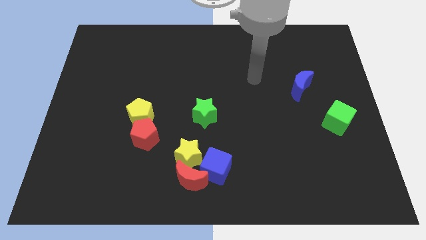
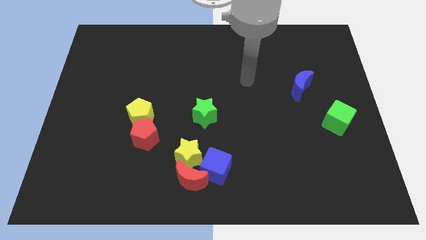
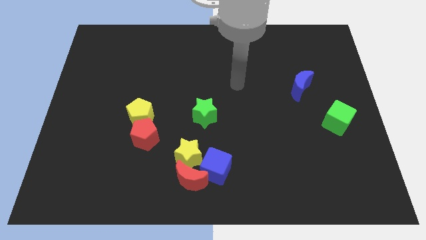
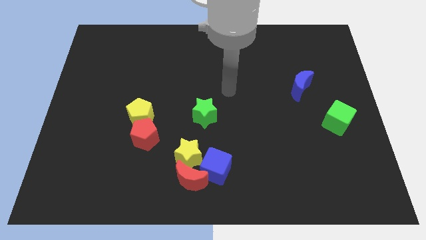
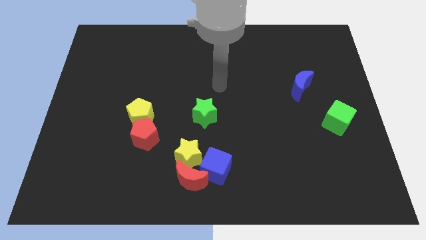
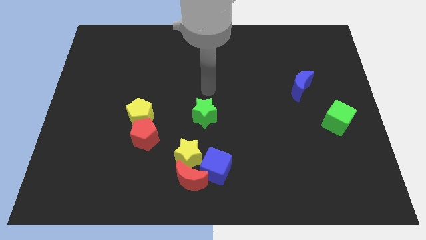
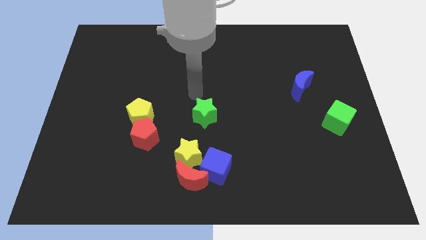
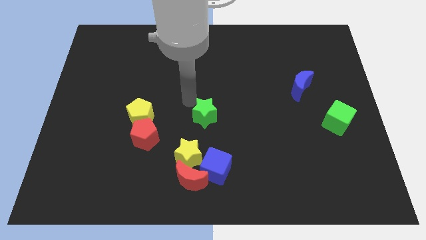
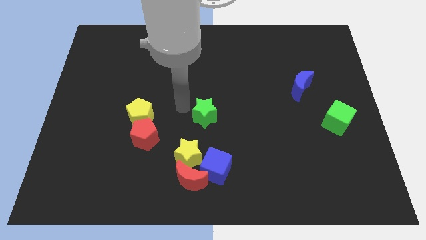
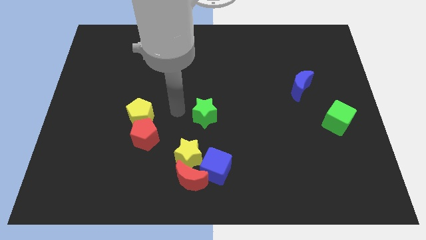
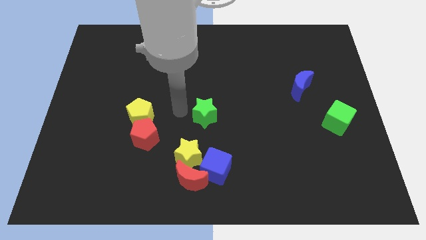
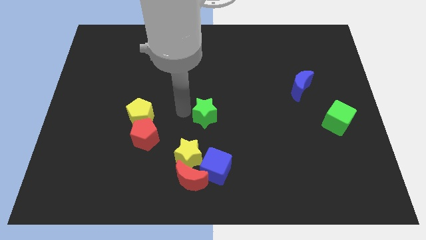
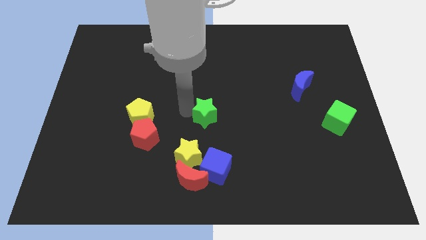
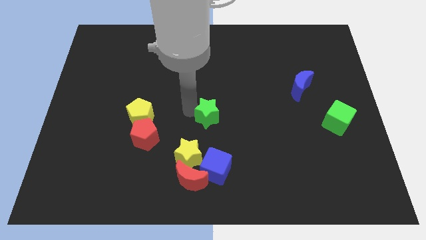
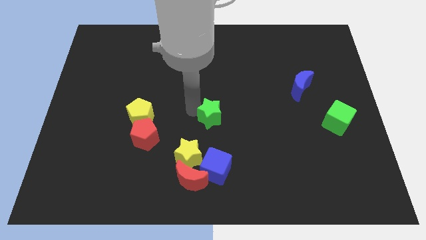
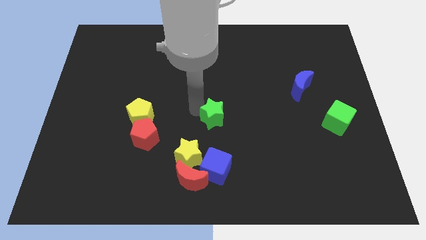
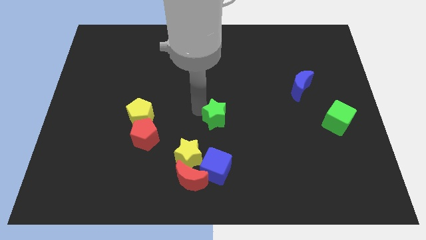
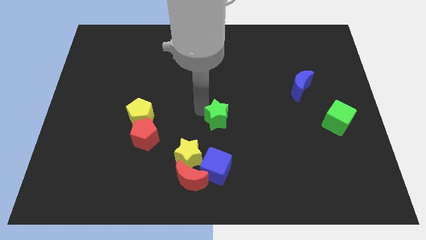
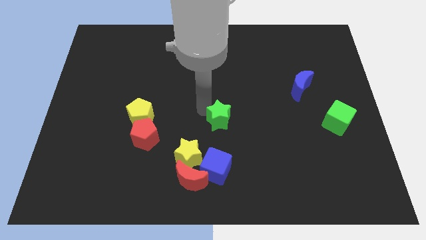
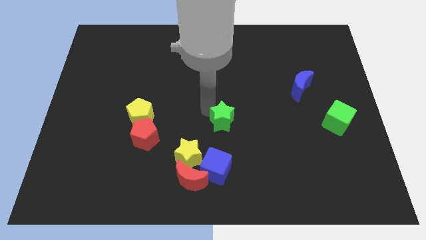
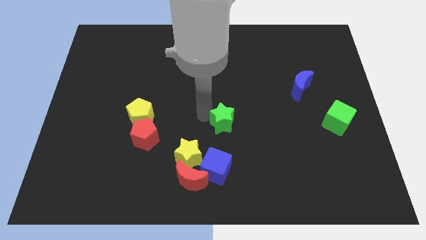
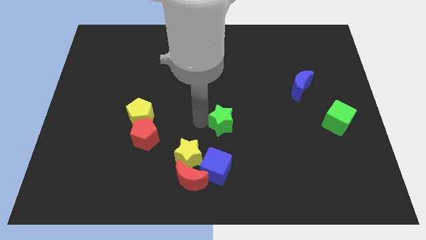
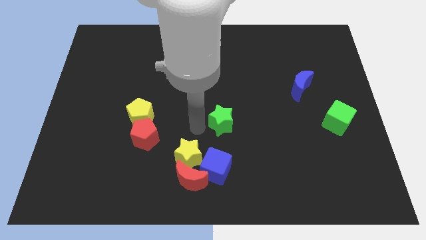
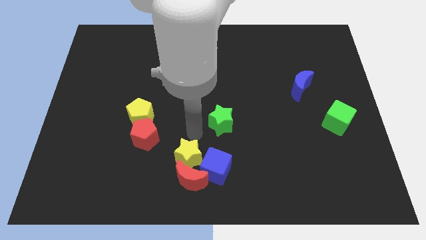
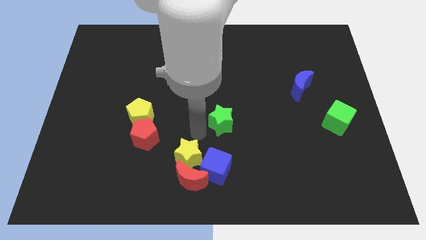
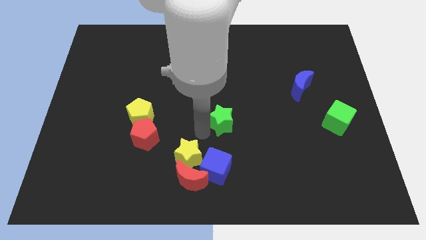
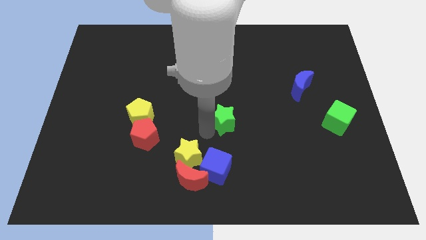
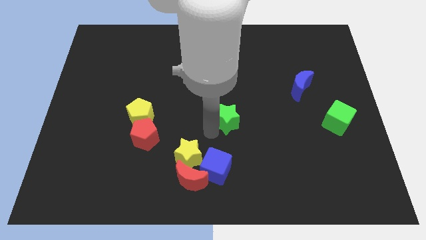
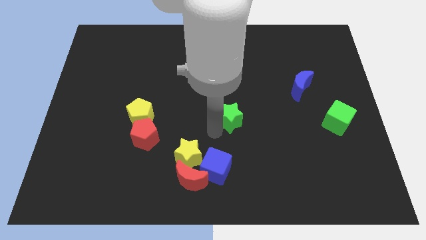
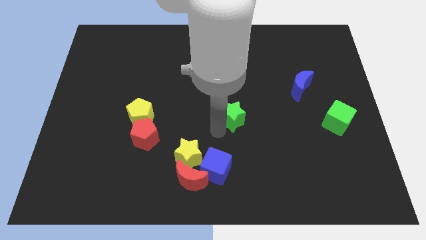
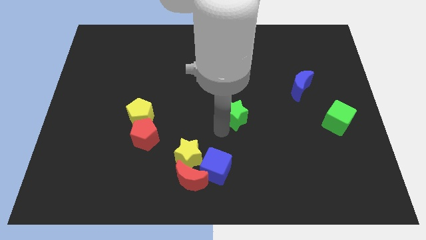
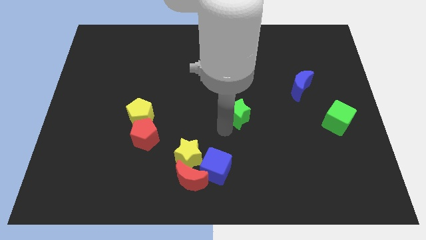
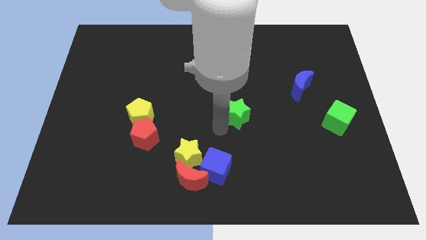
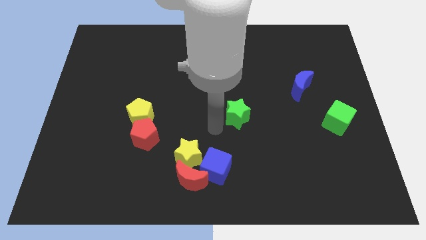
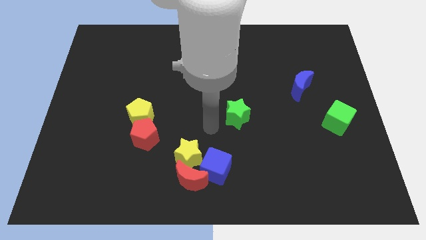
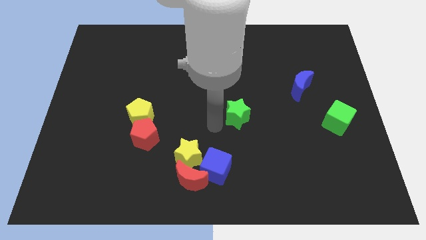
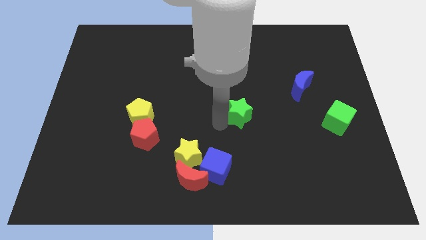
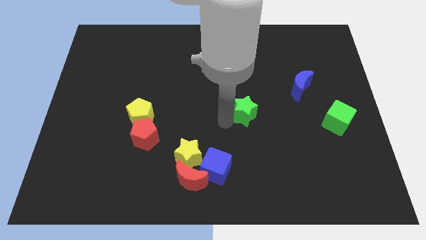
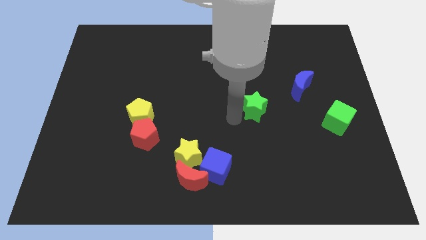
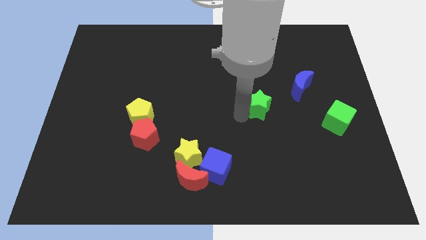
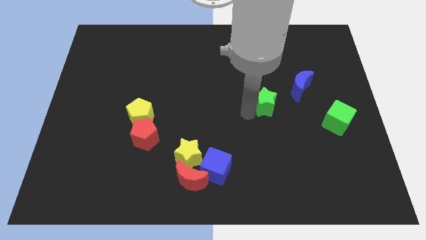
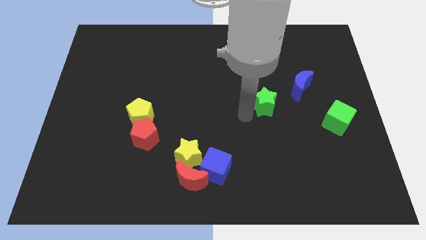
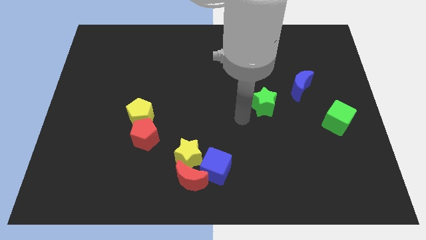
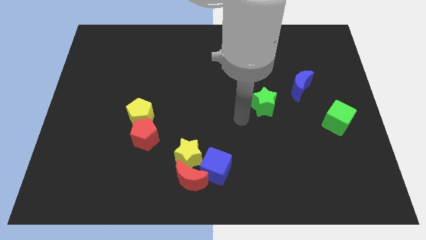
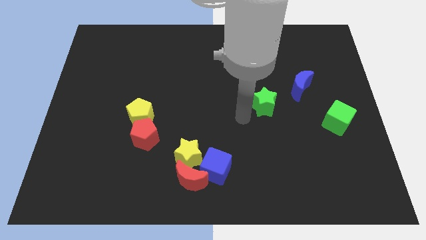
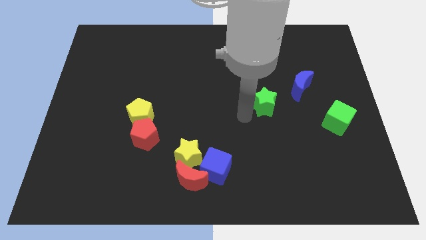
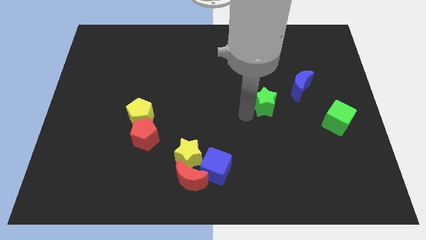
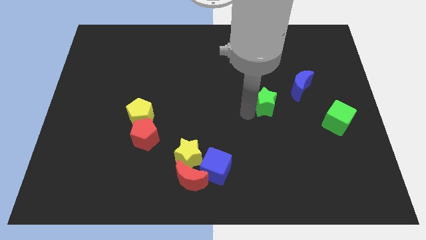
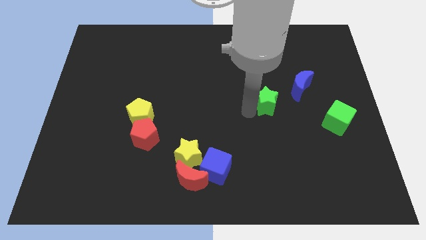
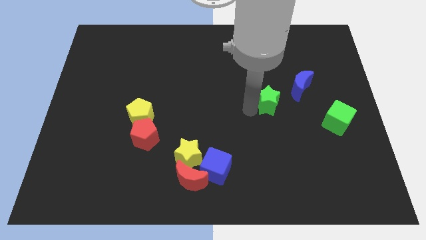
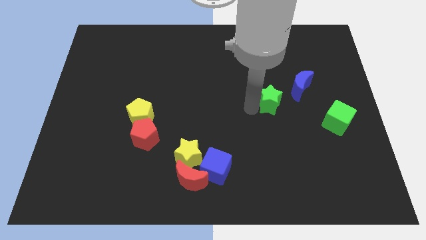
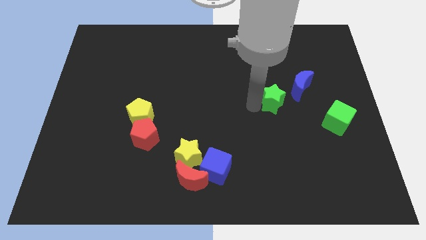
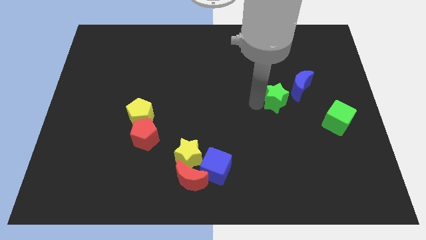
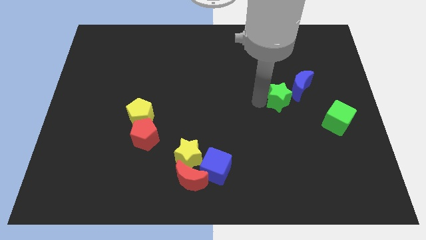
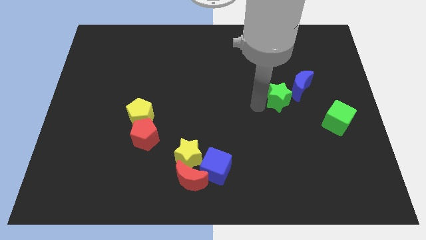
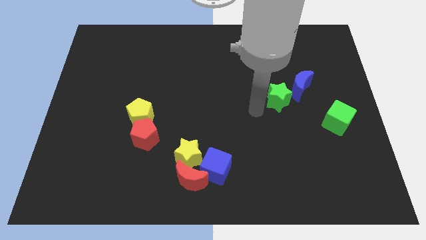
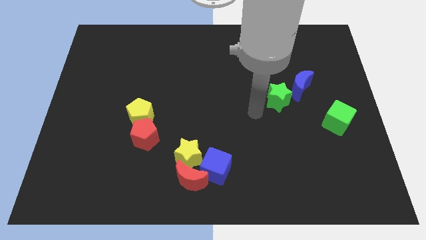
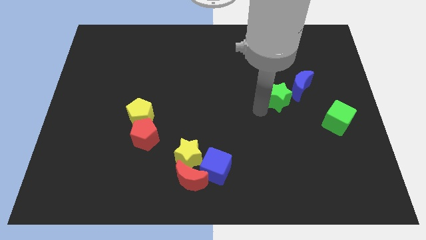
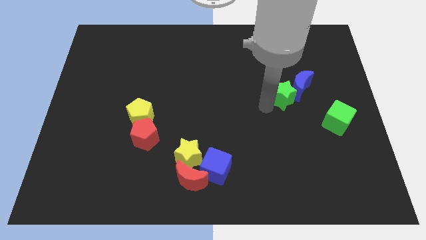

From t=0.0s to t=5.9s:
push the green star next to the blue moon

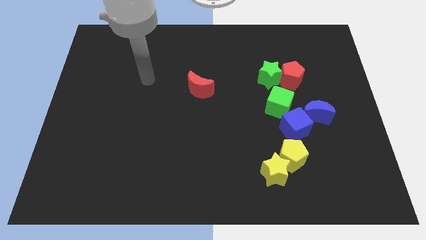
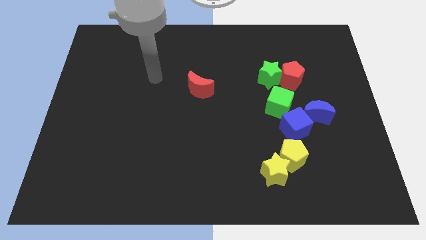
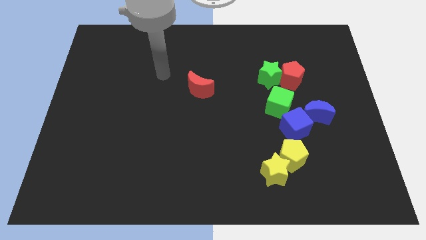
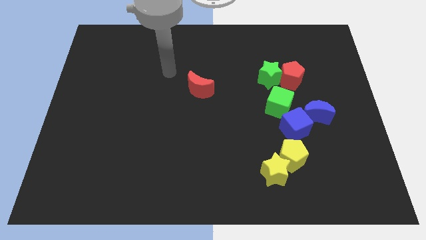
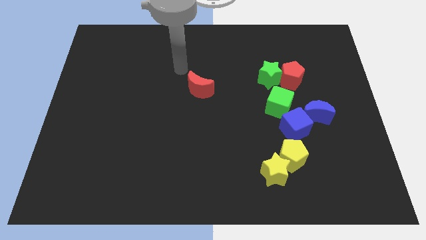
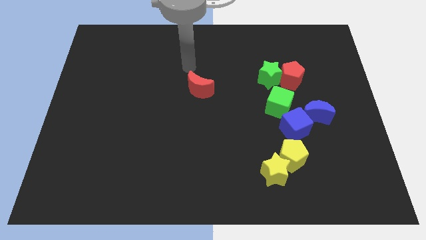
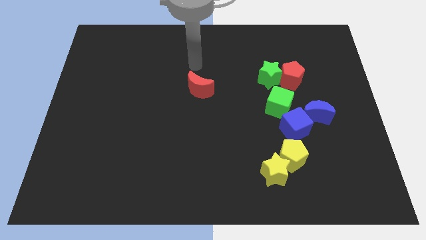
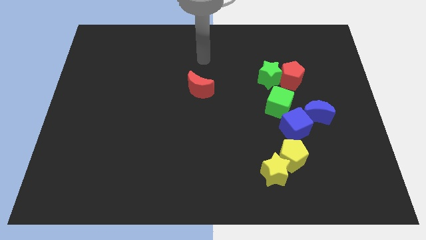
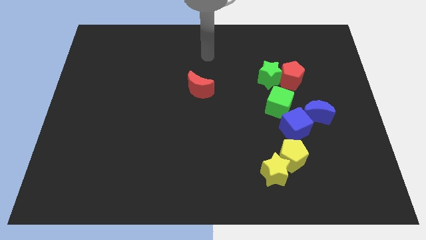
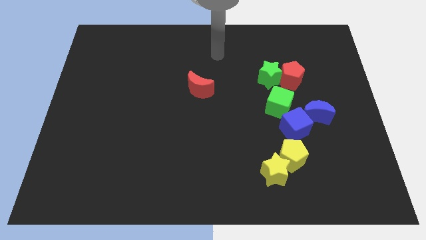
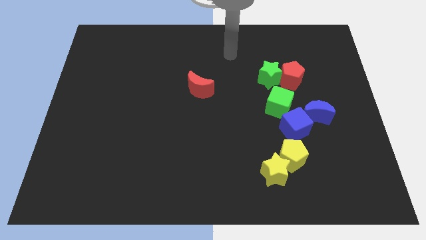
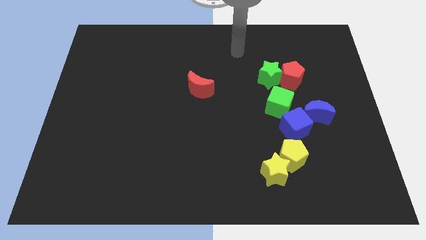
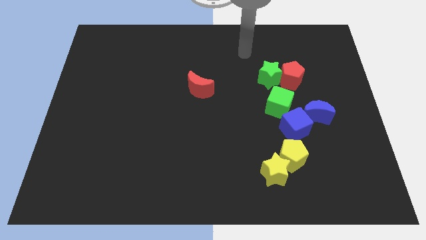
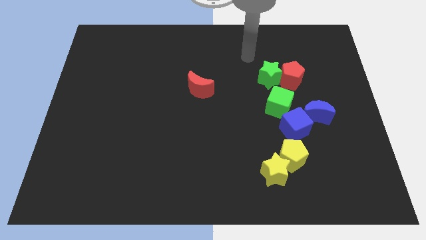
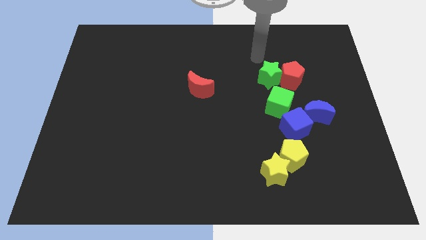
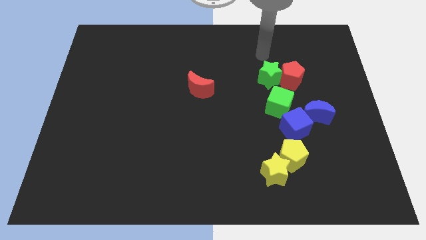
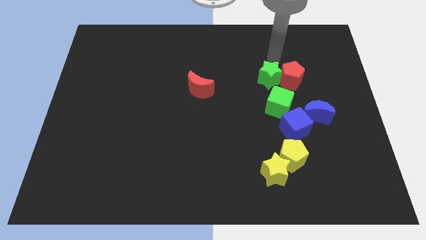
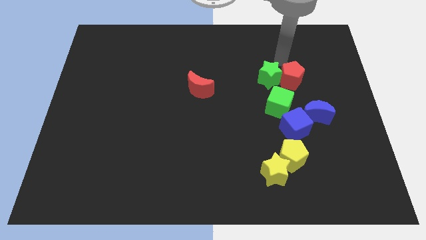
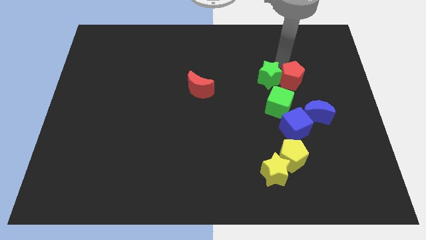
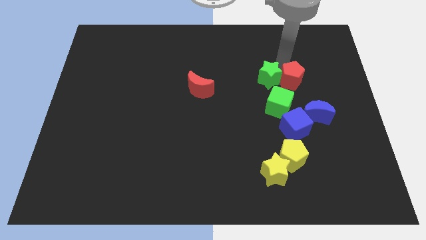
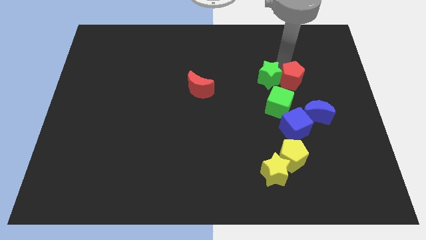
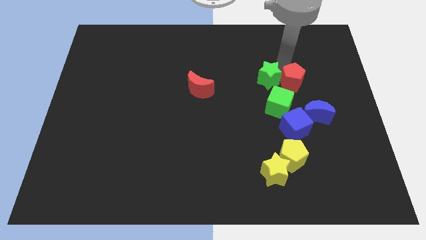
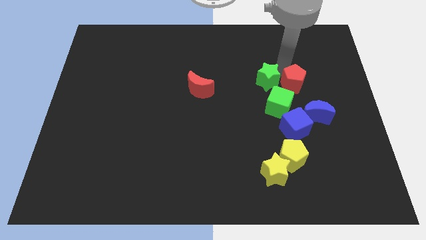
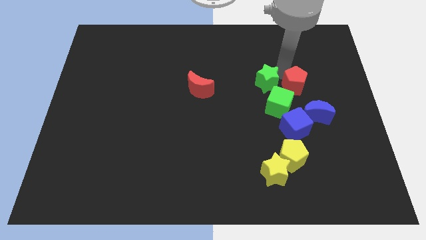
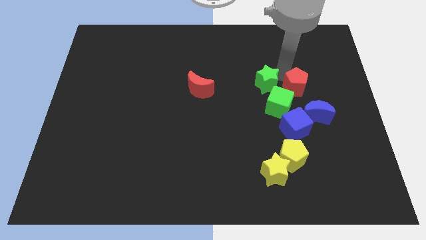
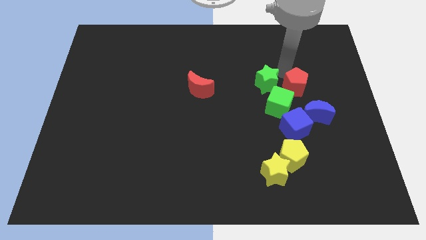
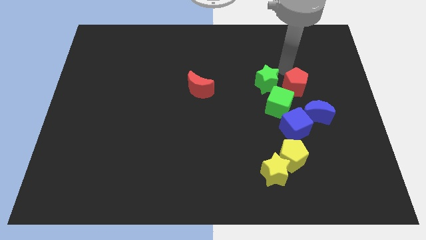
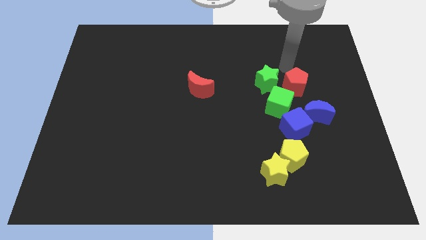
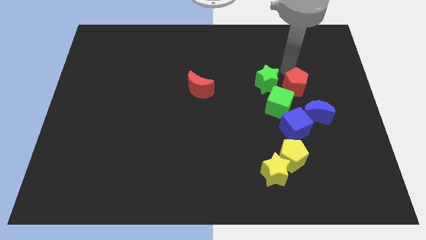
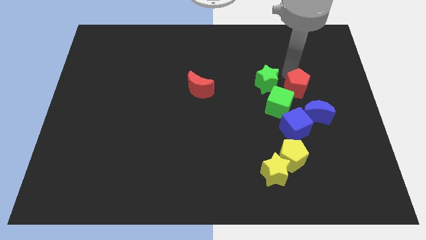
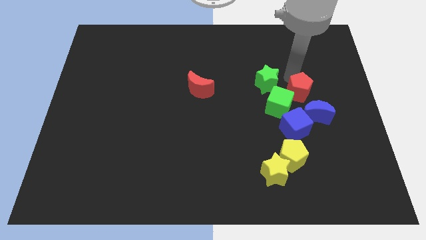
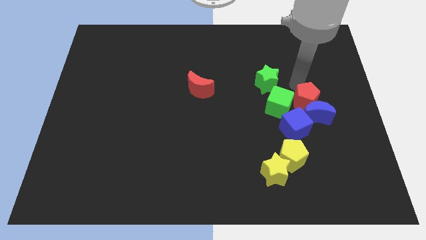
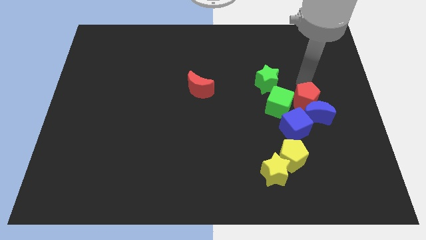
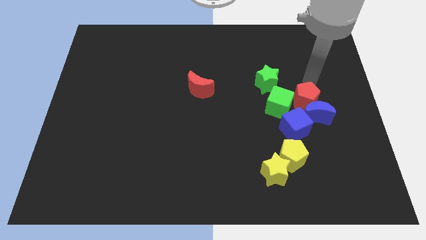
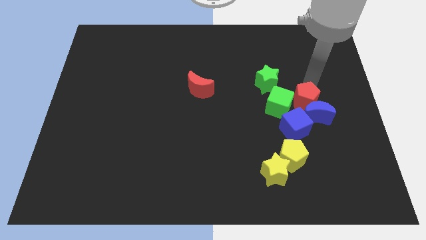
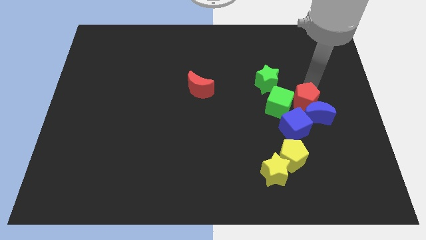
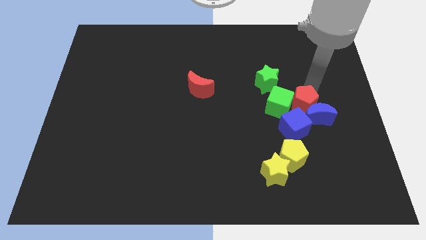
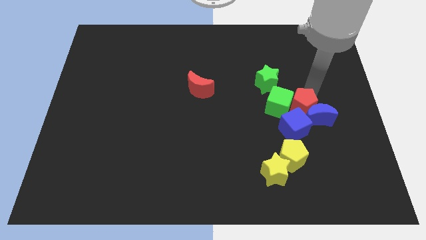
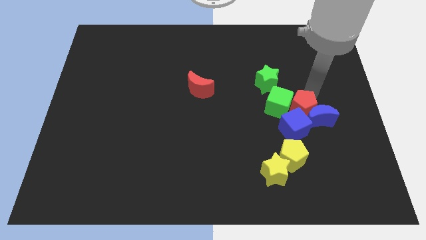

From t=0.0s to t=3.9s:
push the red pentagon towards the blue cube
